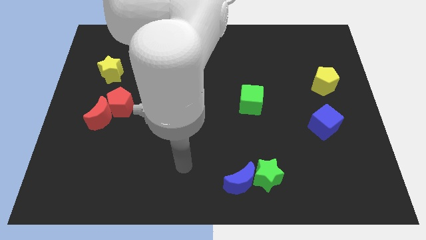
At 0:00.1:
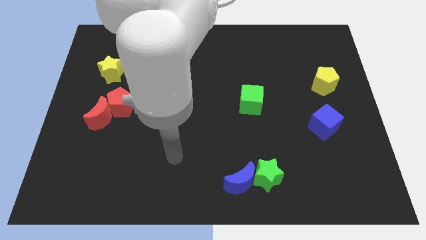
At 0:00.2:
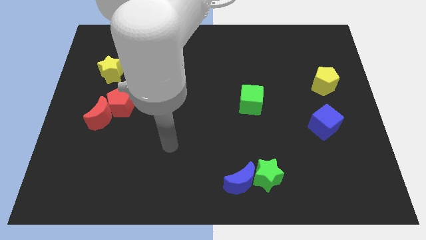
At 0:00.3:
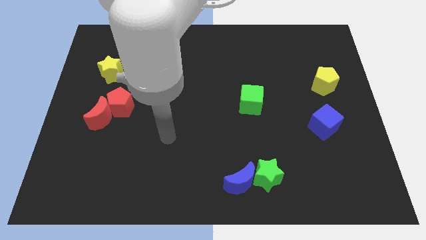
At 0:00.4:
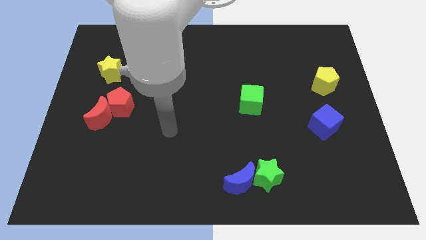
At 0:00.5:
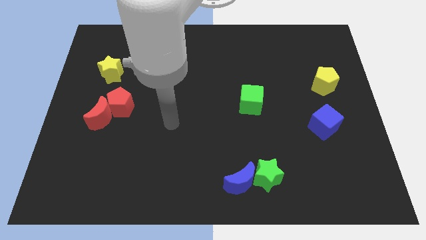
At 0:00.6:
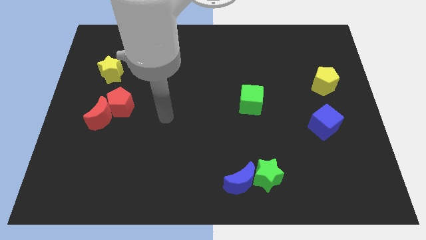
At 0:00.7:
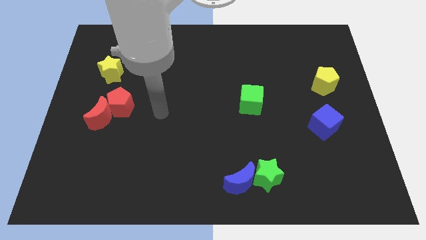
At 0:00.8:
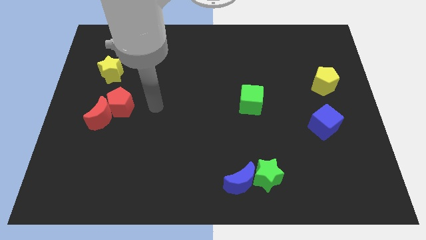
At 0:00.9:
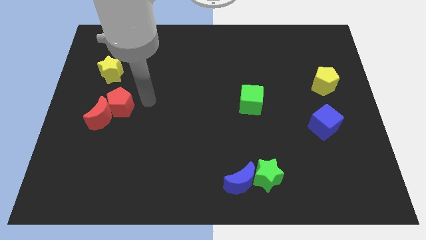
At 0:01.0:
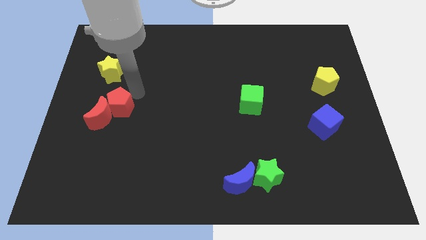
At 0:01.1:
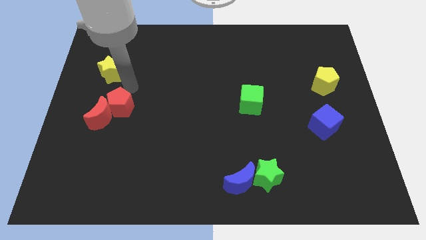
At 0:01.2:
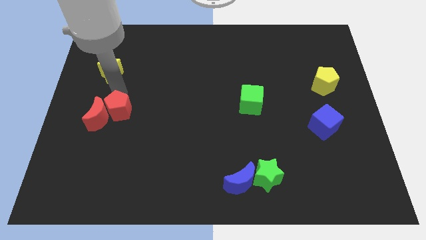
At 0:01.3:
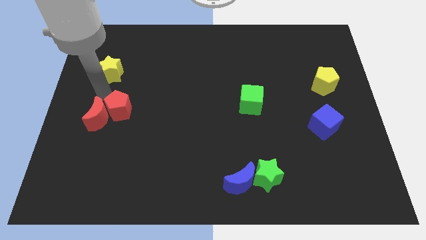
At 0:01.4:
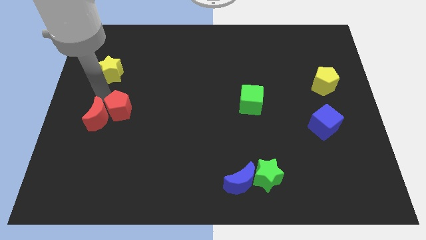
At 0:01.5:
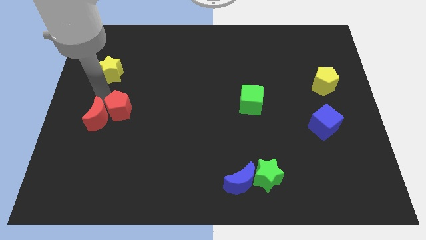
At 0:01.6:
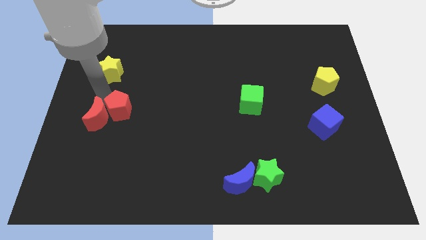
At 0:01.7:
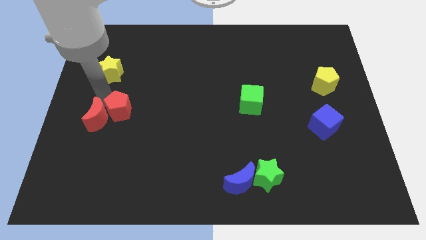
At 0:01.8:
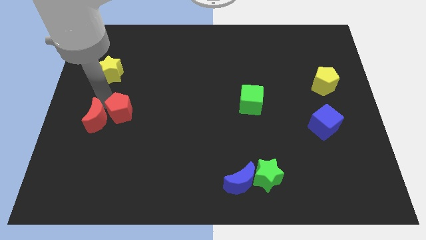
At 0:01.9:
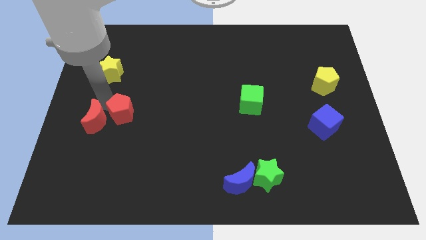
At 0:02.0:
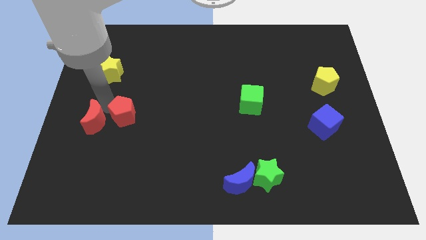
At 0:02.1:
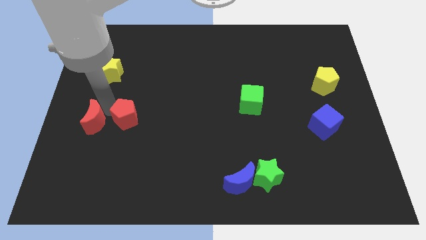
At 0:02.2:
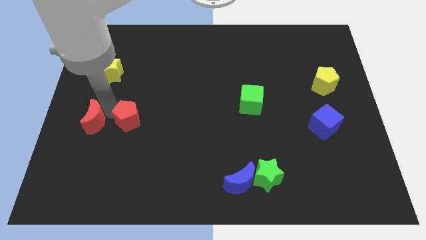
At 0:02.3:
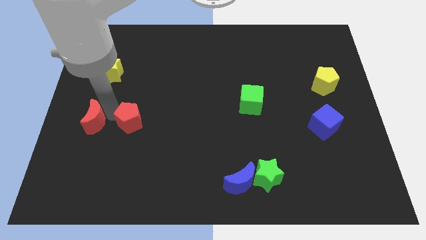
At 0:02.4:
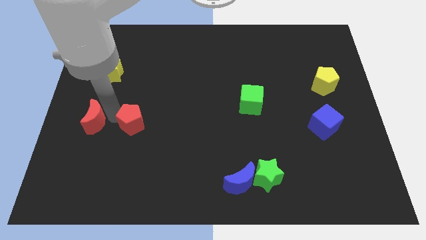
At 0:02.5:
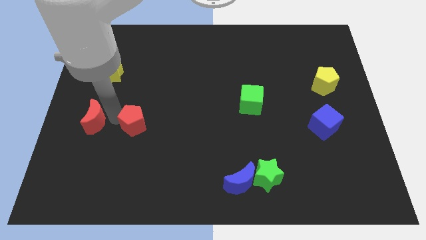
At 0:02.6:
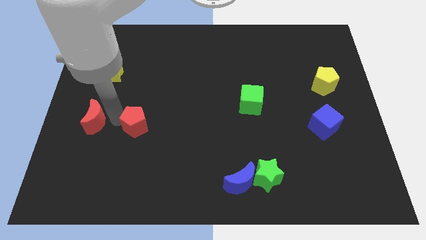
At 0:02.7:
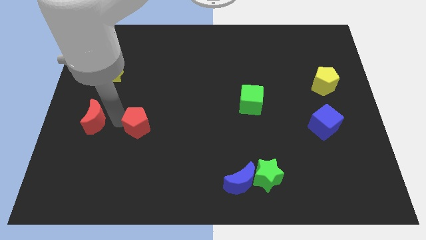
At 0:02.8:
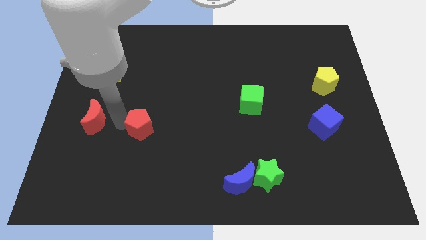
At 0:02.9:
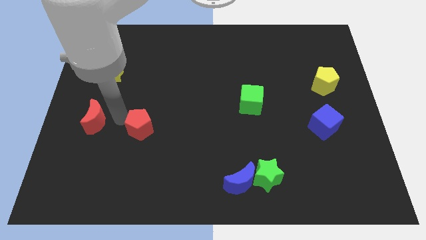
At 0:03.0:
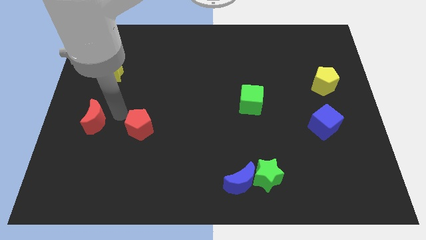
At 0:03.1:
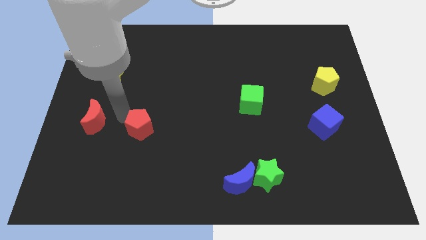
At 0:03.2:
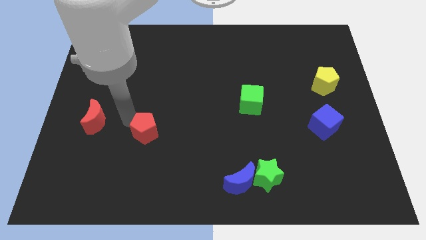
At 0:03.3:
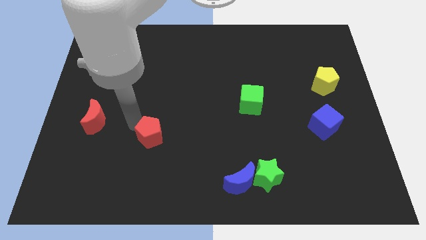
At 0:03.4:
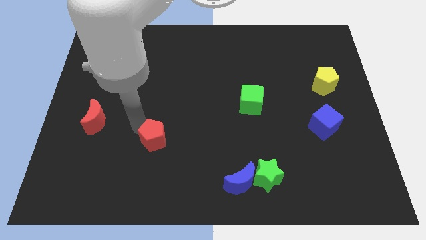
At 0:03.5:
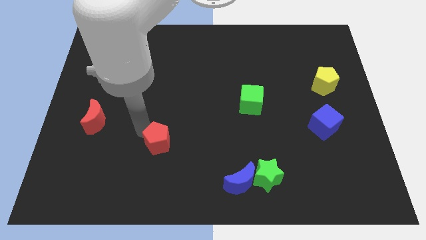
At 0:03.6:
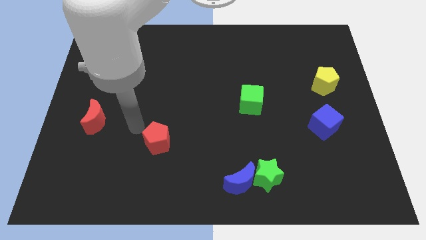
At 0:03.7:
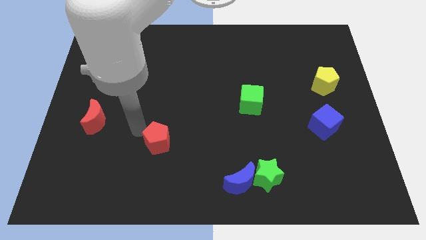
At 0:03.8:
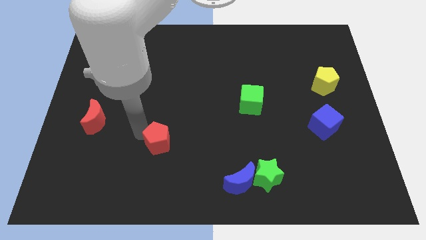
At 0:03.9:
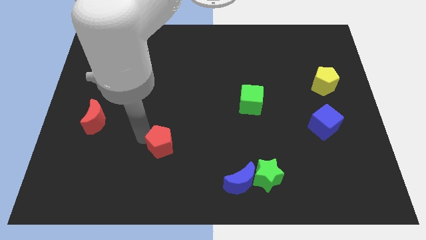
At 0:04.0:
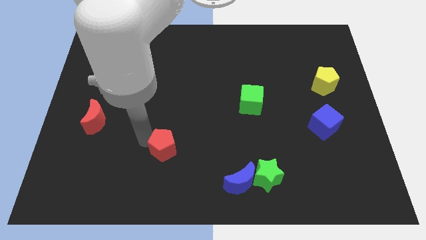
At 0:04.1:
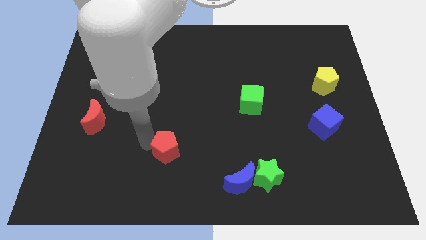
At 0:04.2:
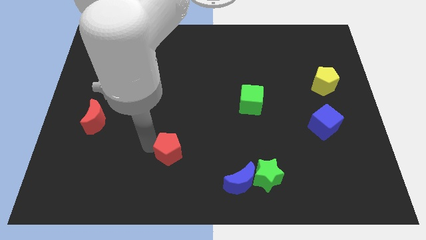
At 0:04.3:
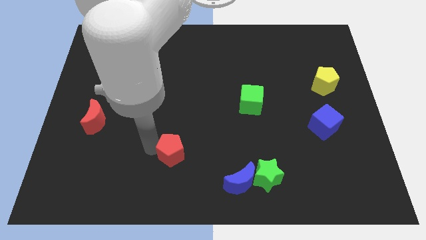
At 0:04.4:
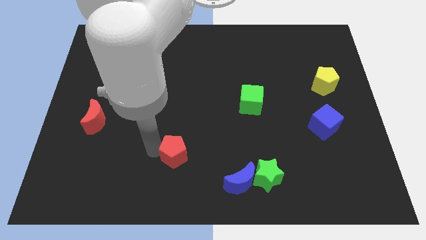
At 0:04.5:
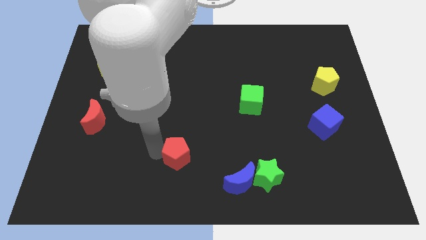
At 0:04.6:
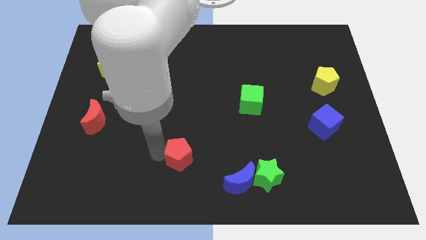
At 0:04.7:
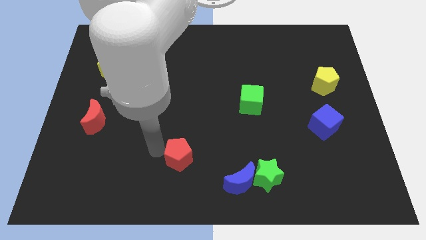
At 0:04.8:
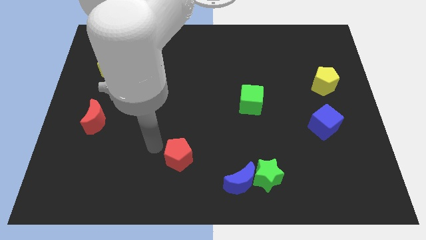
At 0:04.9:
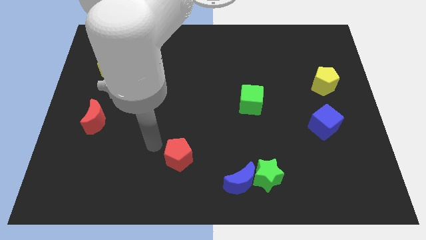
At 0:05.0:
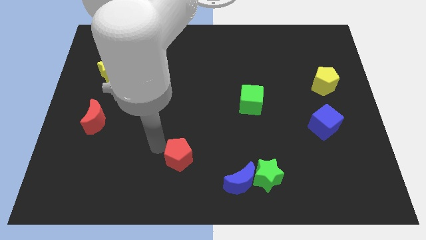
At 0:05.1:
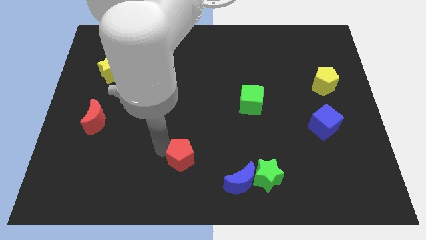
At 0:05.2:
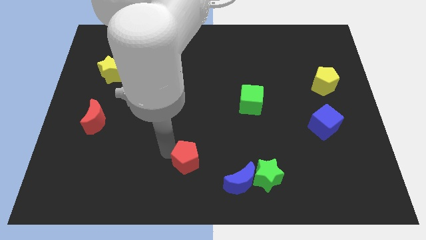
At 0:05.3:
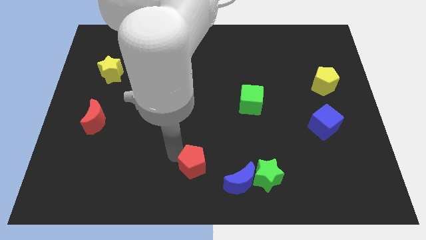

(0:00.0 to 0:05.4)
slide the red pentagon to the left side of the green star

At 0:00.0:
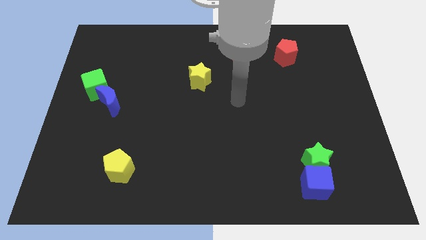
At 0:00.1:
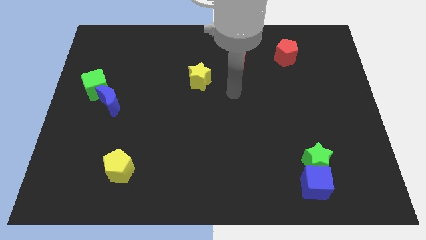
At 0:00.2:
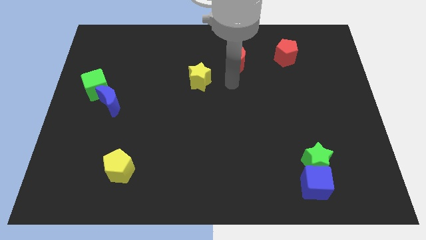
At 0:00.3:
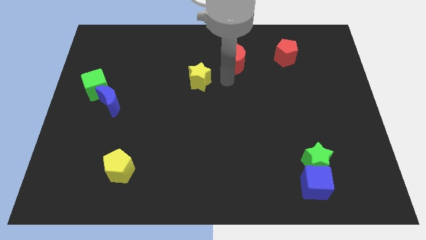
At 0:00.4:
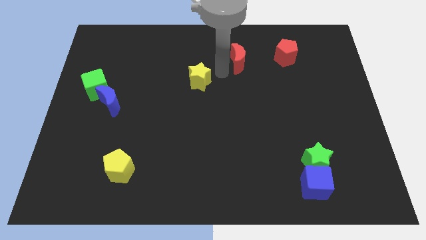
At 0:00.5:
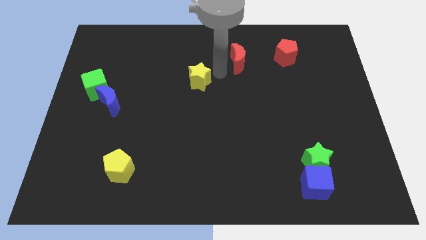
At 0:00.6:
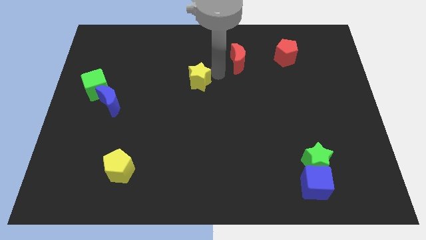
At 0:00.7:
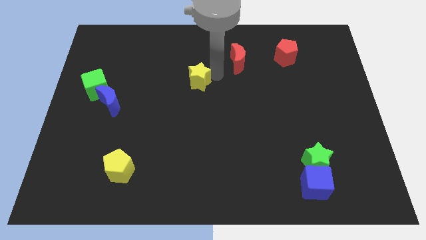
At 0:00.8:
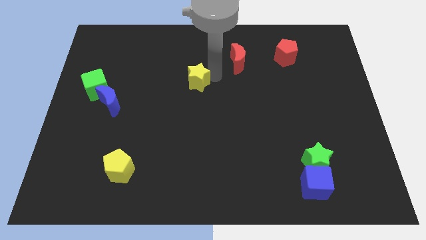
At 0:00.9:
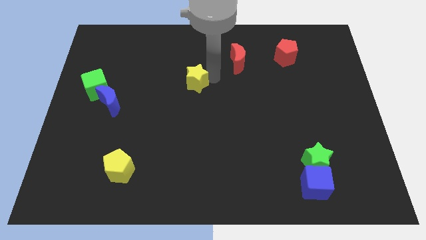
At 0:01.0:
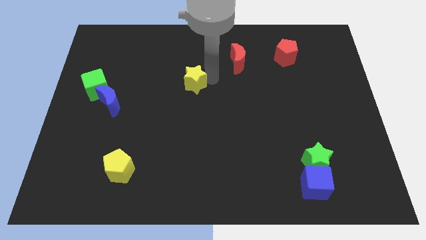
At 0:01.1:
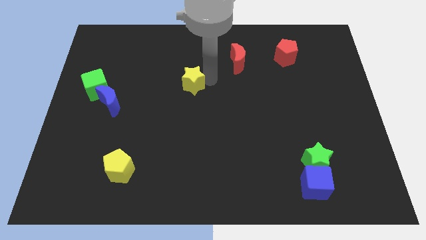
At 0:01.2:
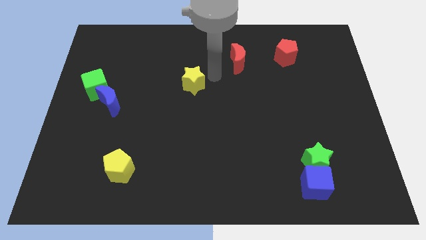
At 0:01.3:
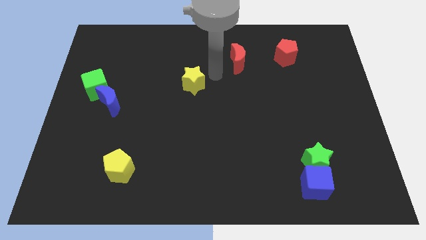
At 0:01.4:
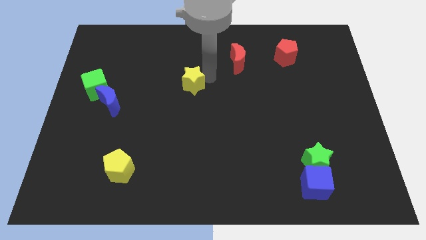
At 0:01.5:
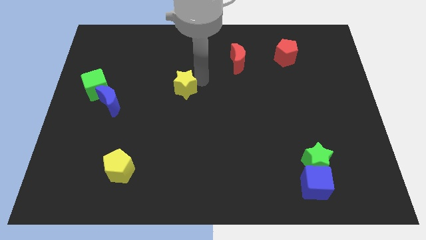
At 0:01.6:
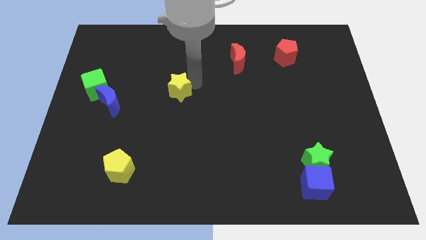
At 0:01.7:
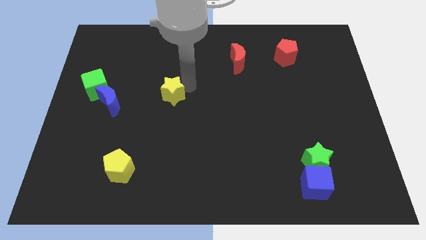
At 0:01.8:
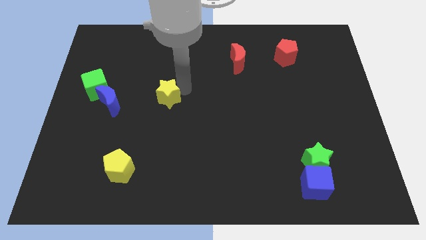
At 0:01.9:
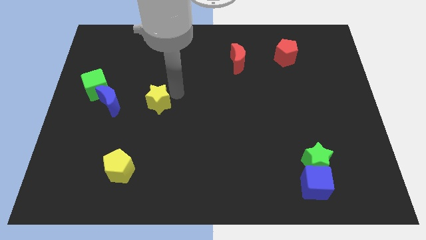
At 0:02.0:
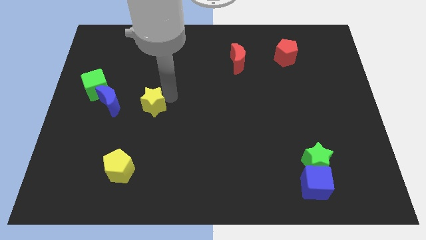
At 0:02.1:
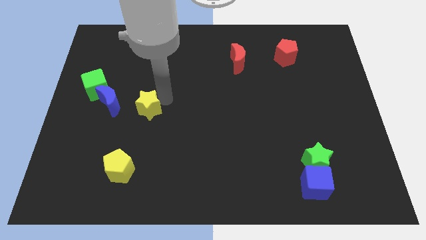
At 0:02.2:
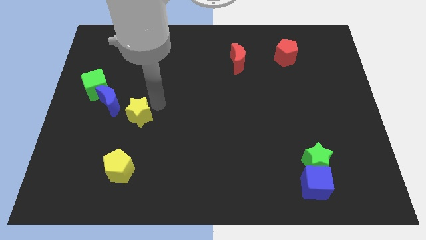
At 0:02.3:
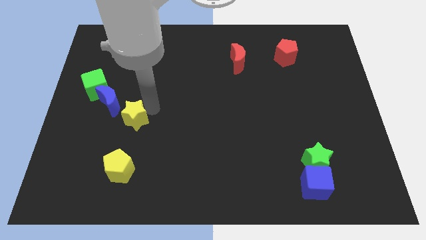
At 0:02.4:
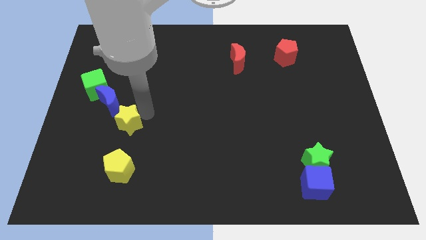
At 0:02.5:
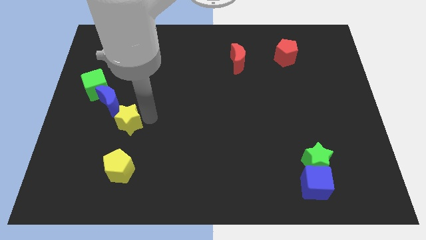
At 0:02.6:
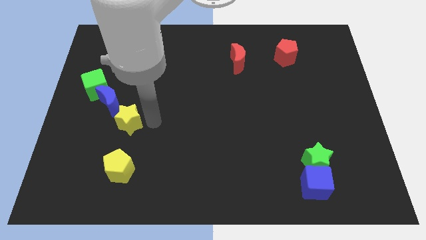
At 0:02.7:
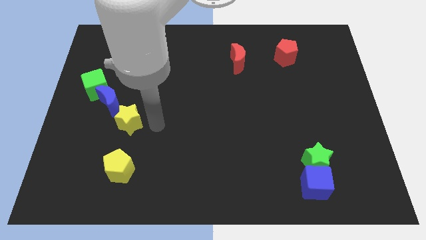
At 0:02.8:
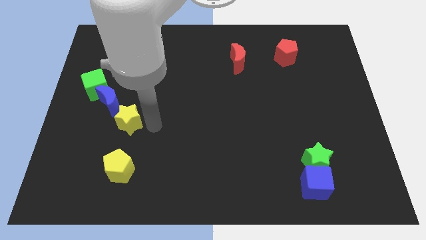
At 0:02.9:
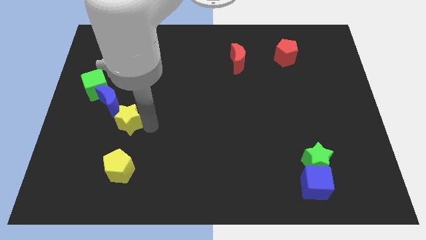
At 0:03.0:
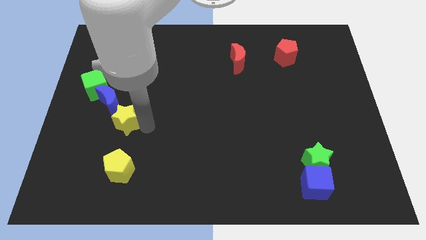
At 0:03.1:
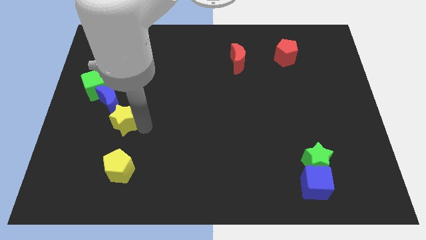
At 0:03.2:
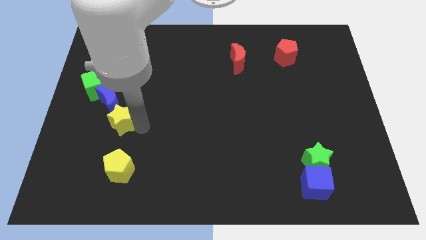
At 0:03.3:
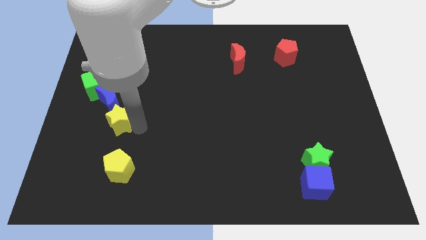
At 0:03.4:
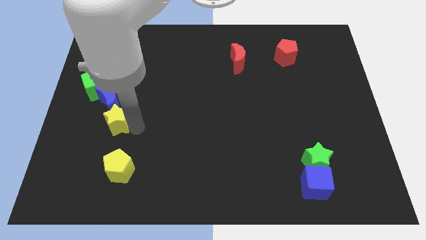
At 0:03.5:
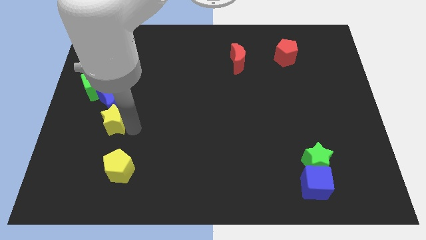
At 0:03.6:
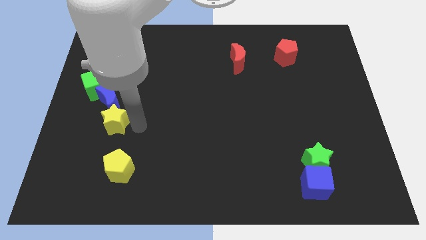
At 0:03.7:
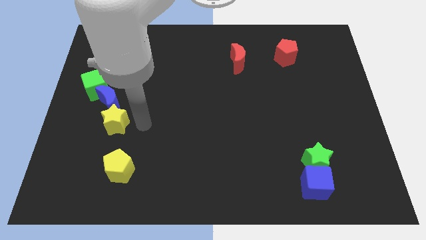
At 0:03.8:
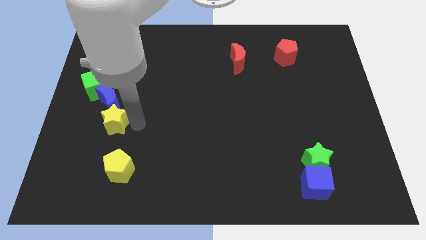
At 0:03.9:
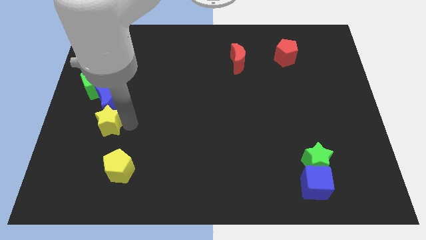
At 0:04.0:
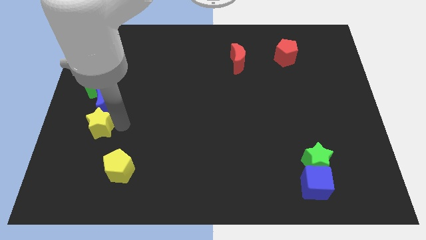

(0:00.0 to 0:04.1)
move the yellow star below the green cube
